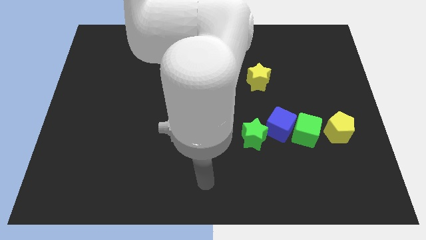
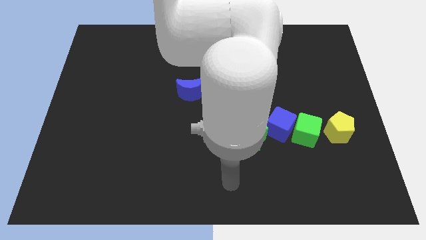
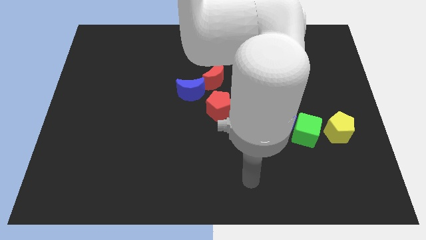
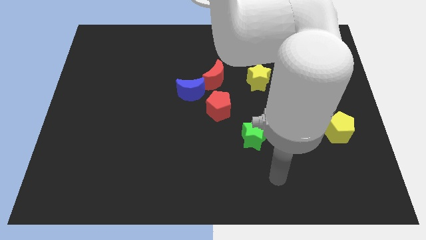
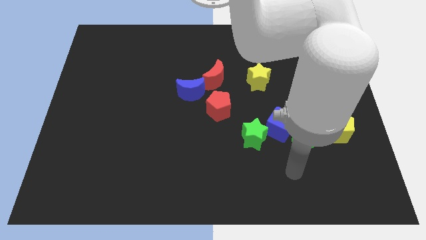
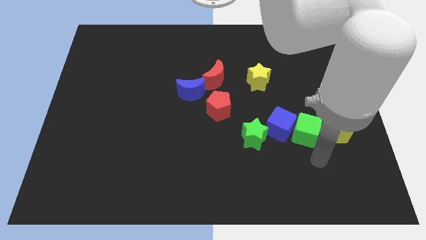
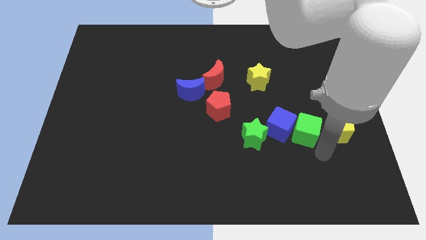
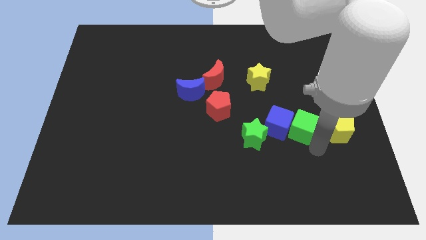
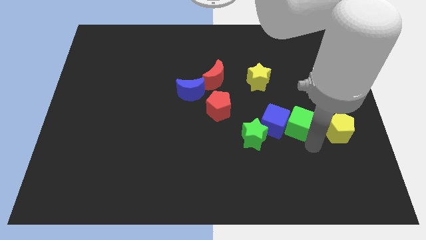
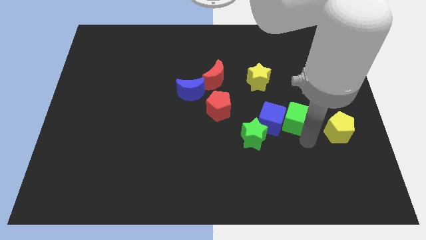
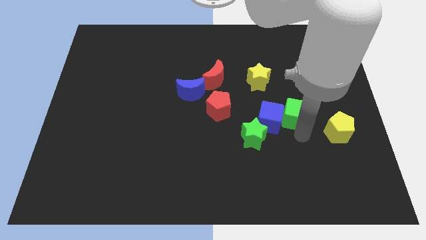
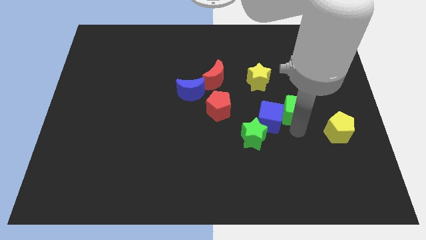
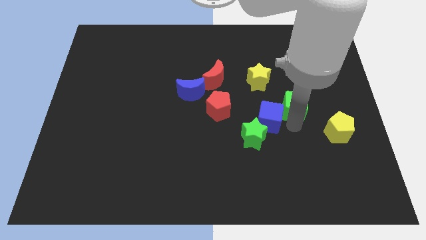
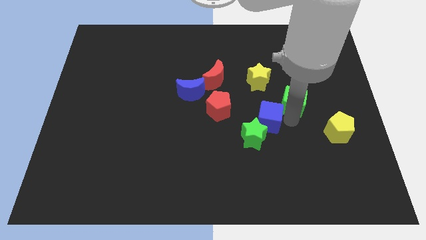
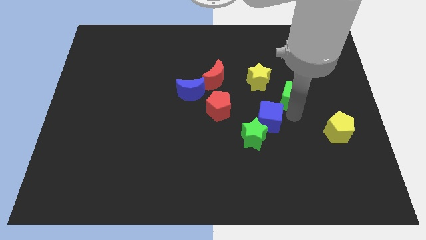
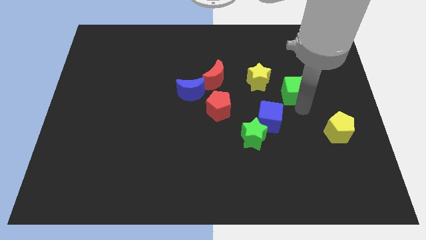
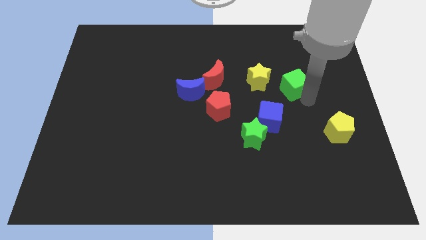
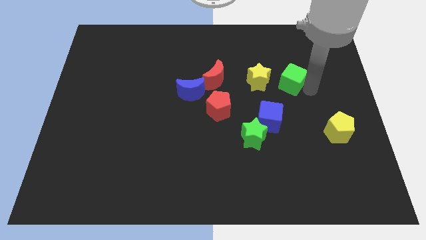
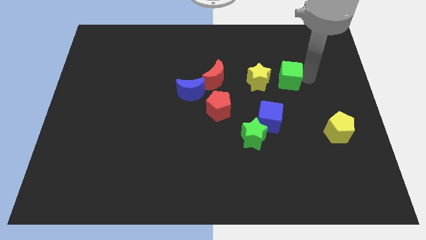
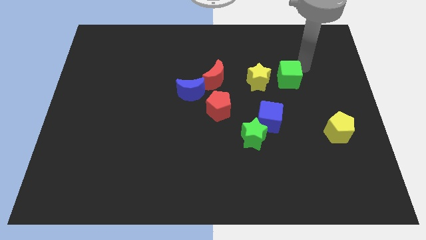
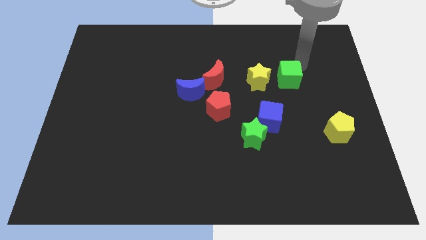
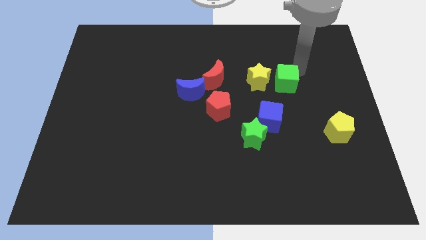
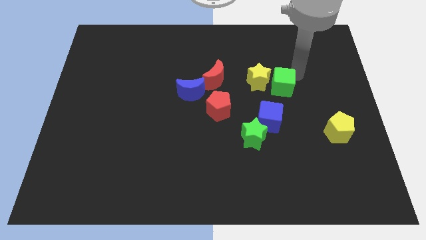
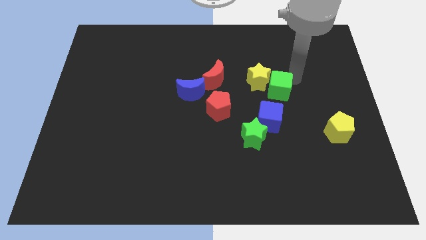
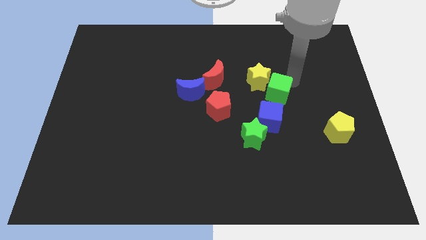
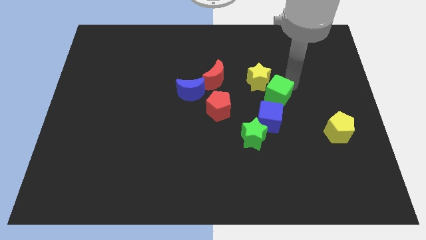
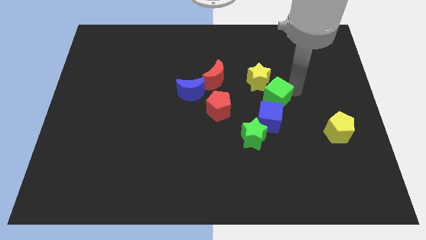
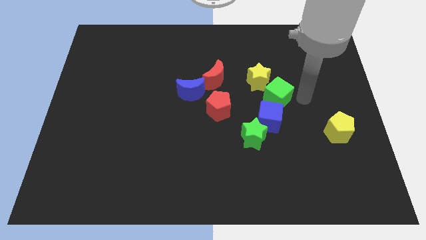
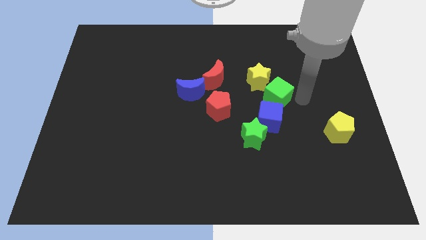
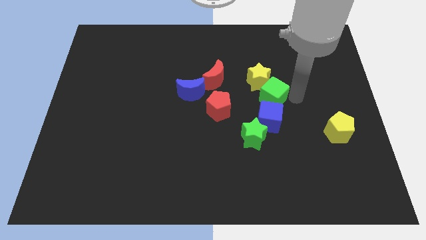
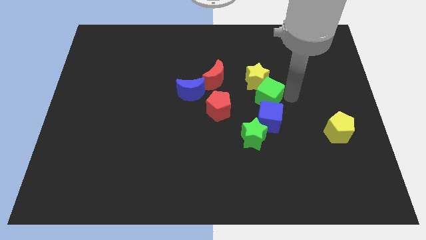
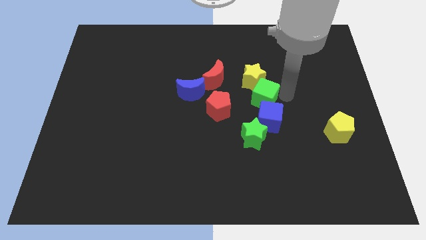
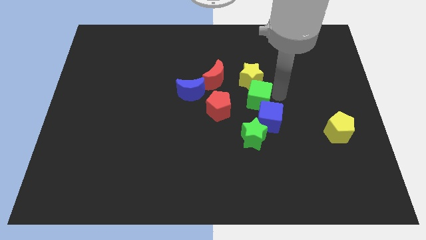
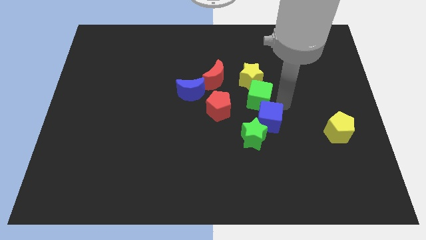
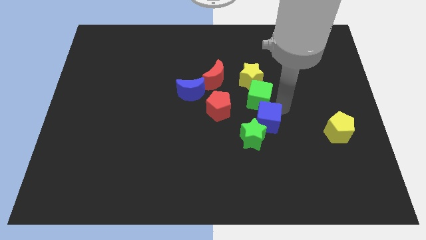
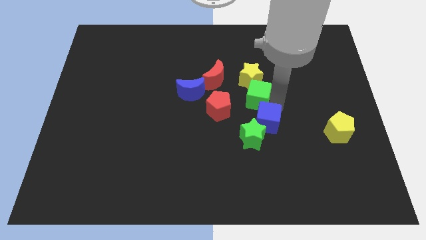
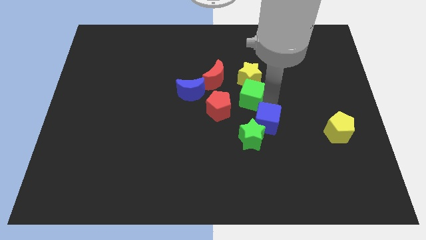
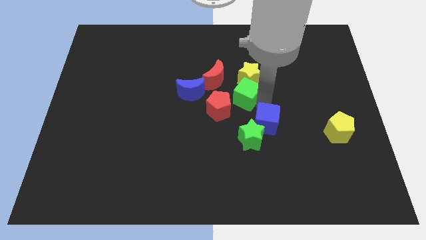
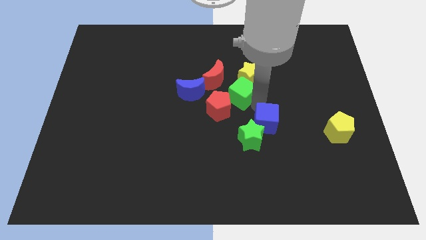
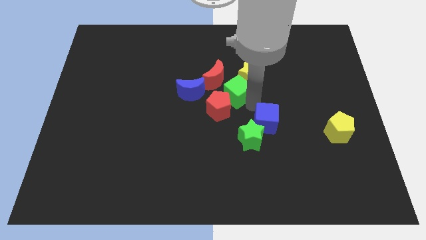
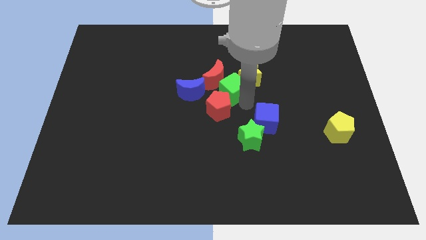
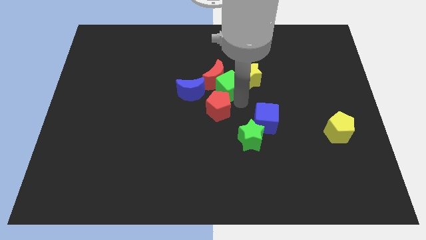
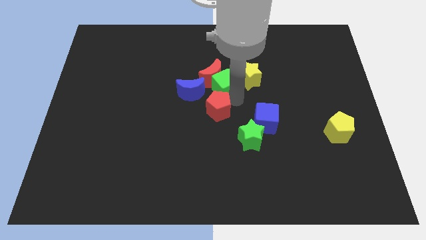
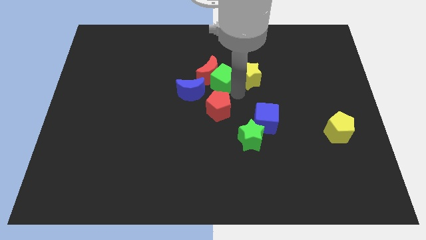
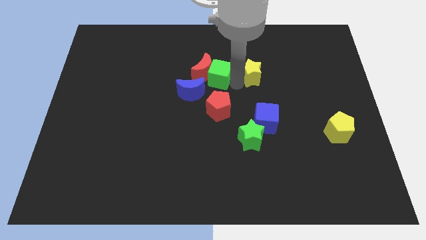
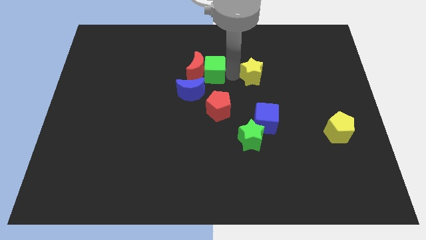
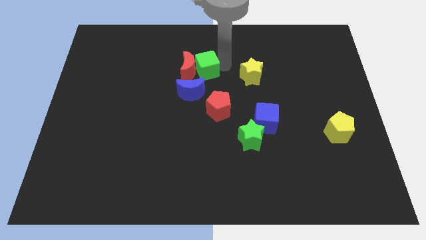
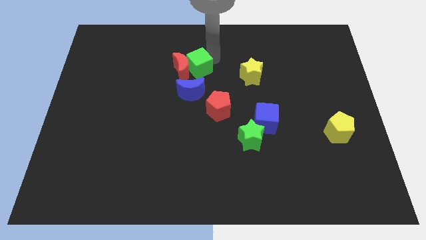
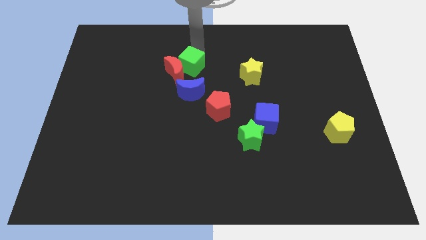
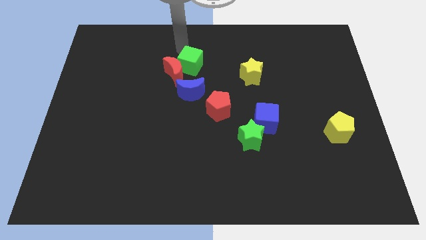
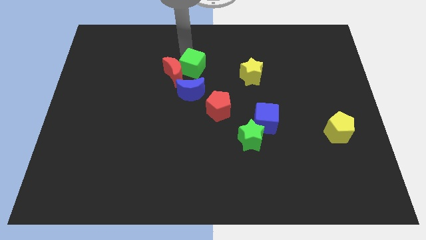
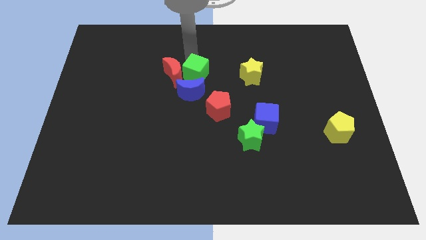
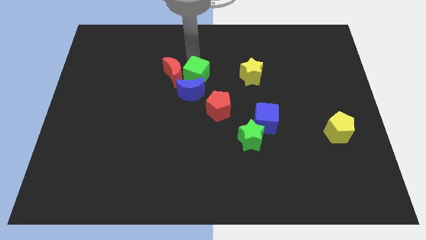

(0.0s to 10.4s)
push the green cube next to the blue moon

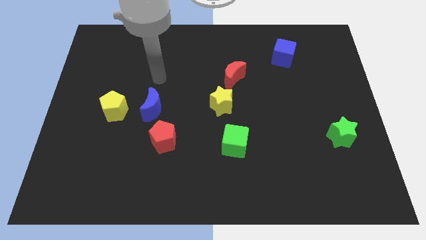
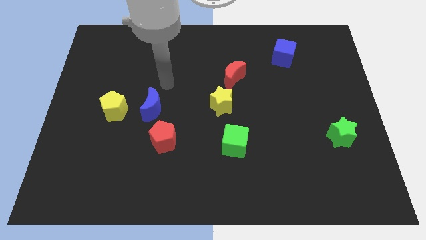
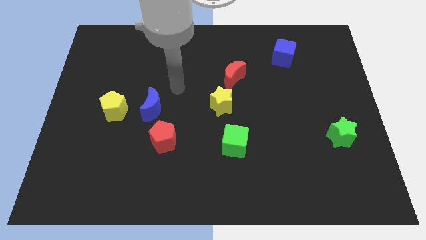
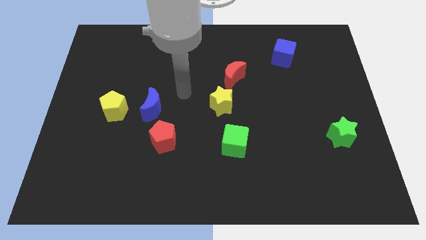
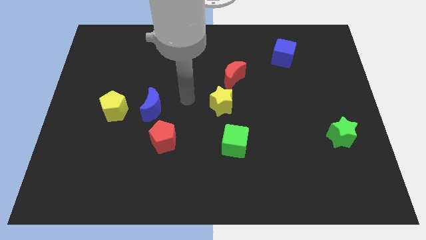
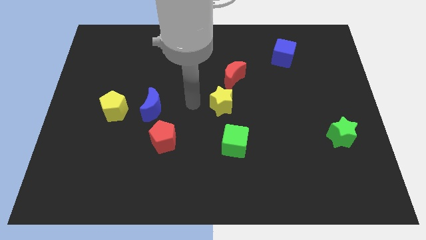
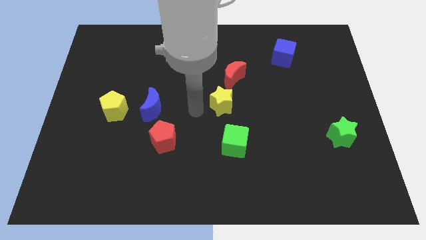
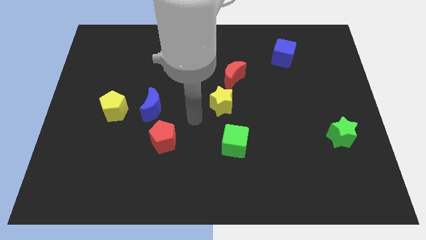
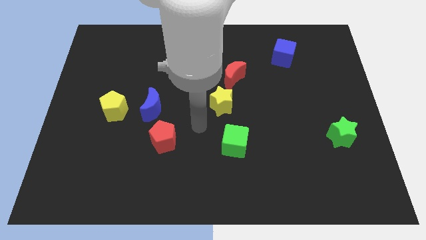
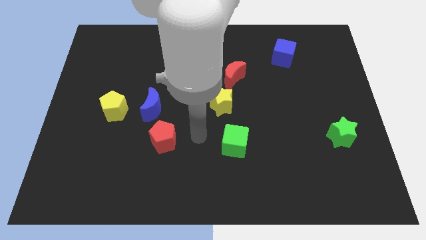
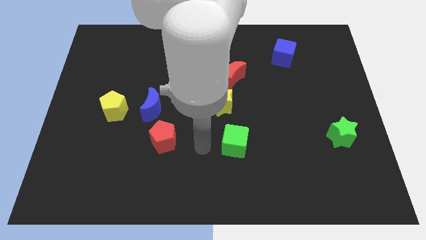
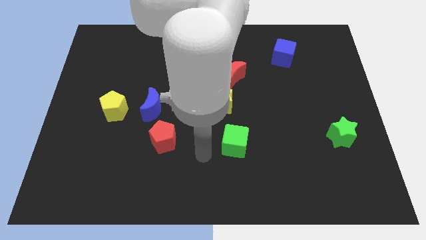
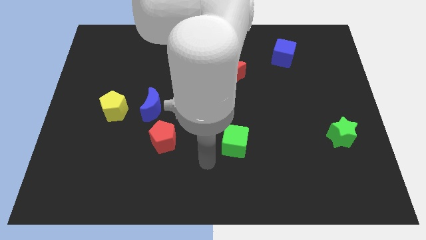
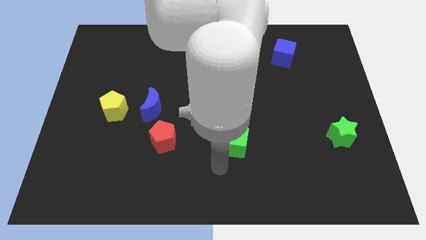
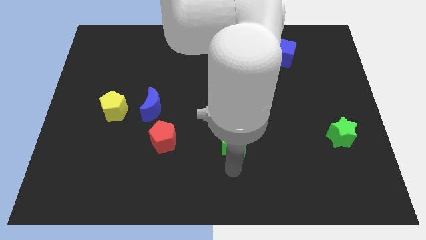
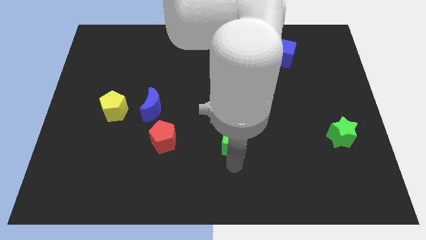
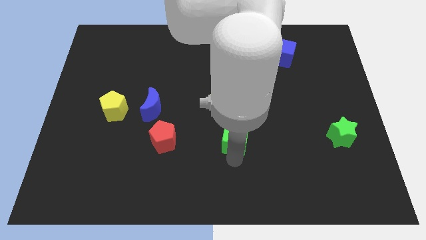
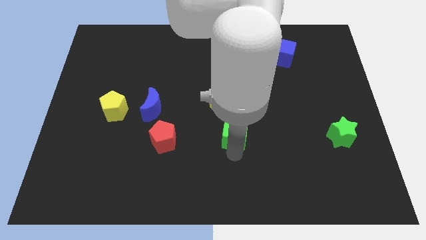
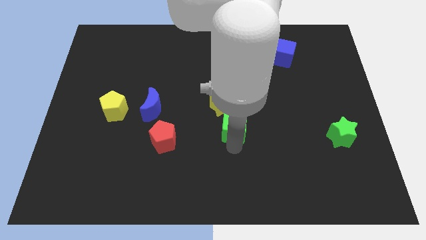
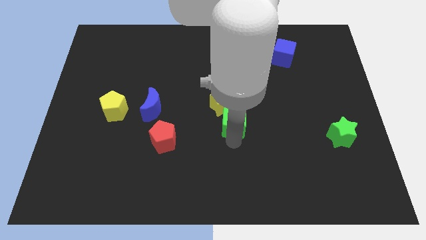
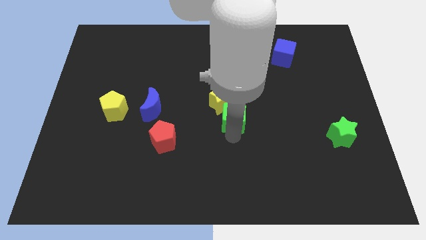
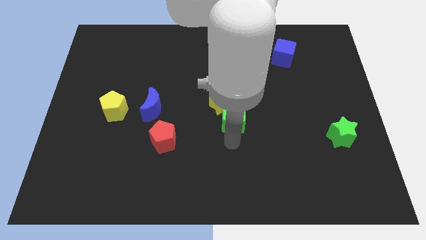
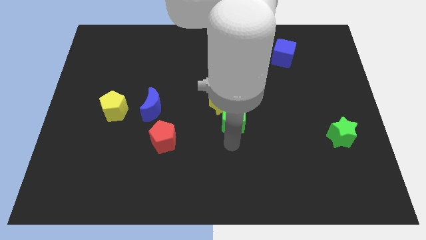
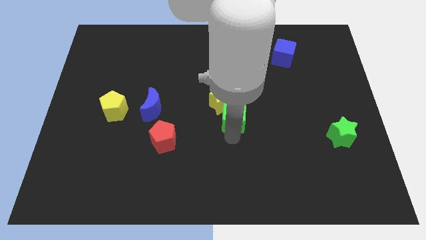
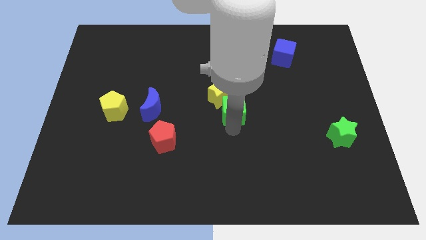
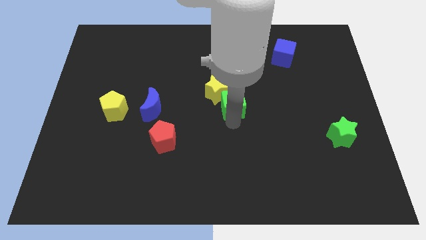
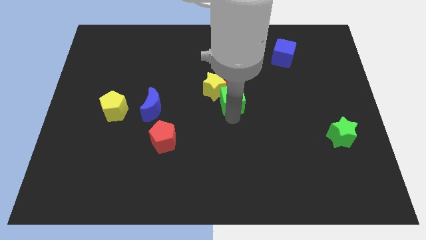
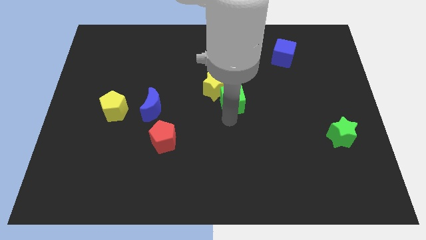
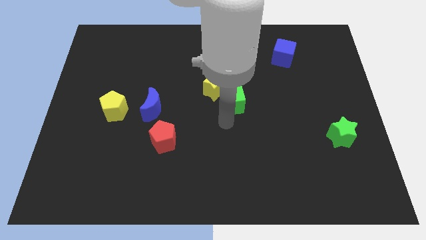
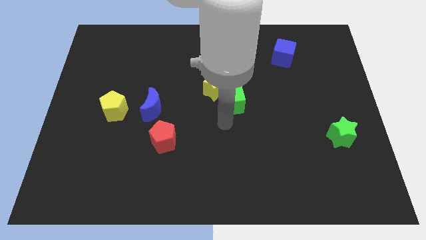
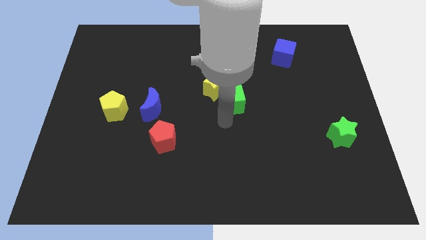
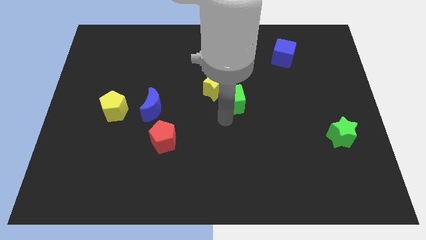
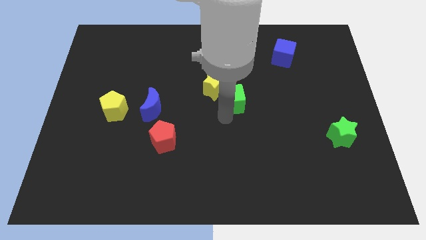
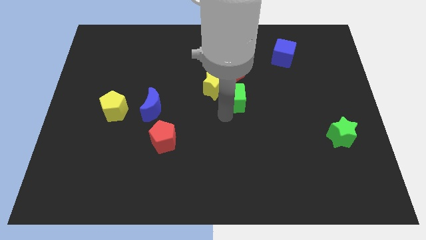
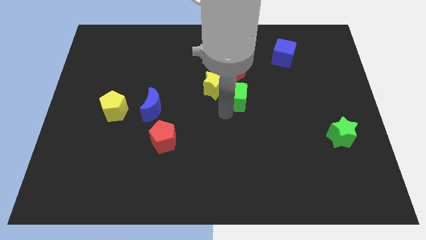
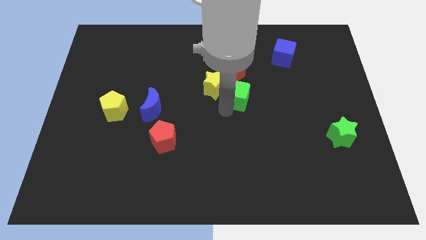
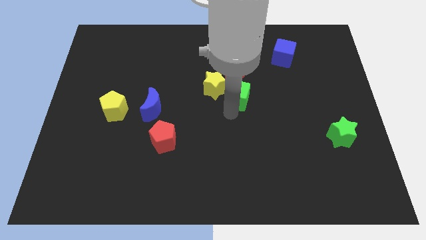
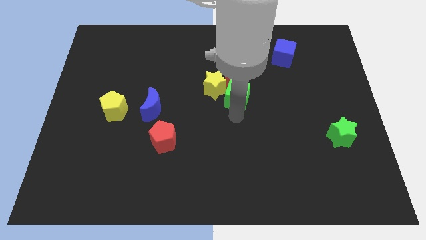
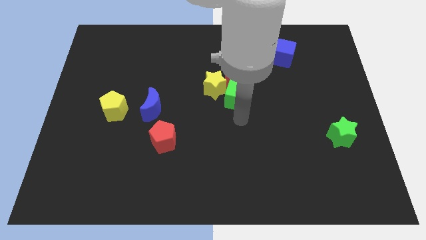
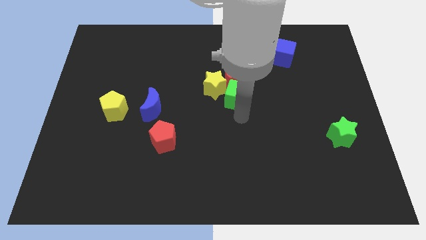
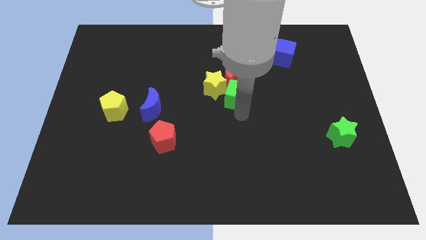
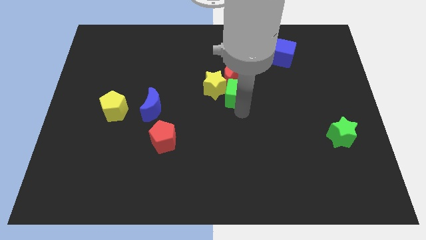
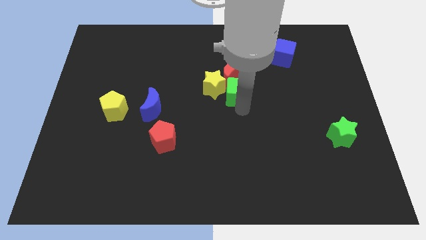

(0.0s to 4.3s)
push the green cube towards the red moon
